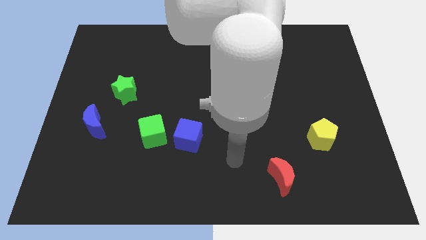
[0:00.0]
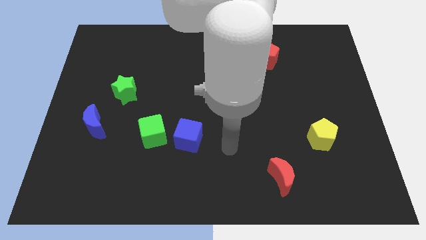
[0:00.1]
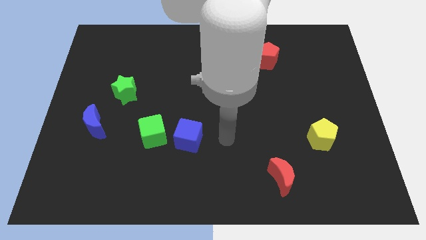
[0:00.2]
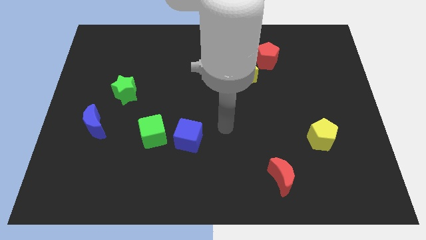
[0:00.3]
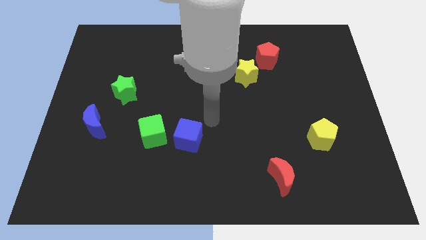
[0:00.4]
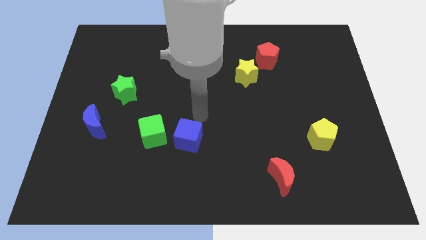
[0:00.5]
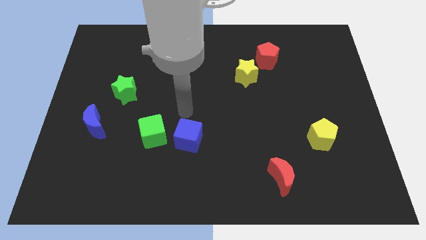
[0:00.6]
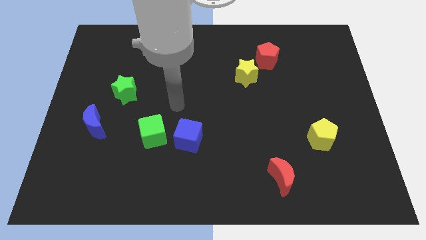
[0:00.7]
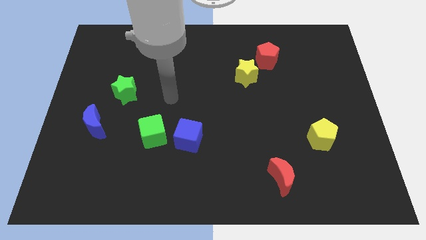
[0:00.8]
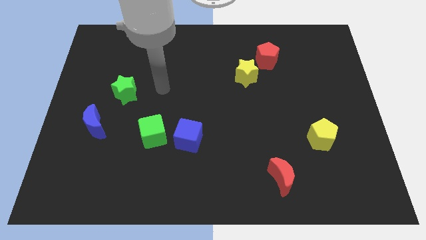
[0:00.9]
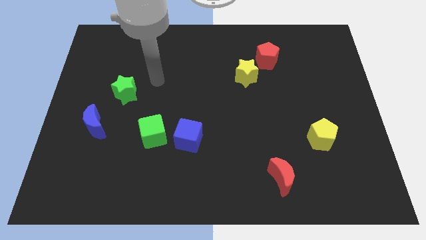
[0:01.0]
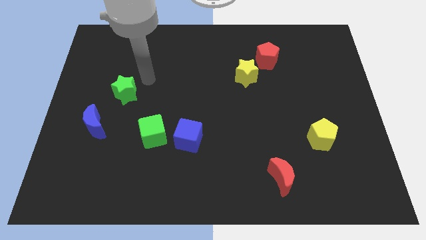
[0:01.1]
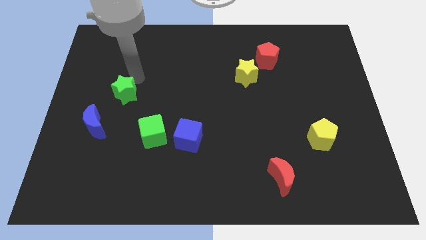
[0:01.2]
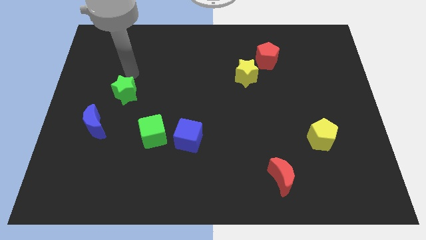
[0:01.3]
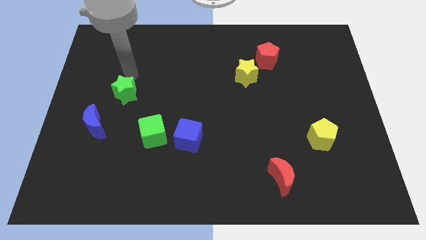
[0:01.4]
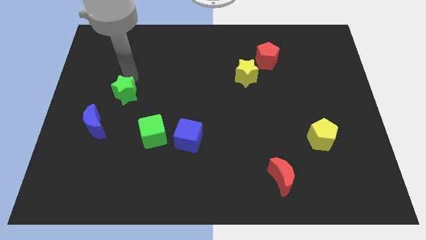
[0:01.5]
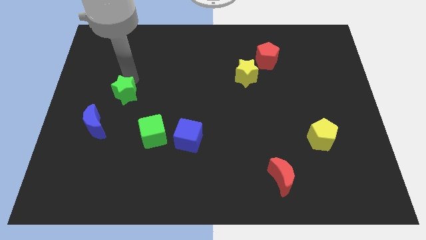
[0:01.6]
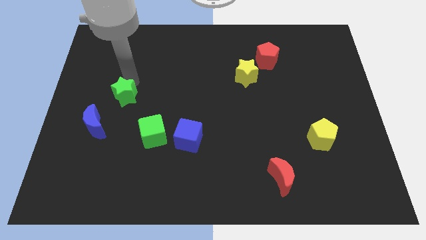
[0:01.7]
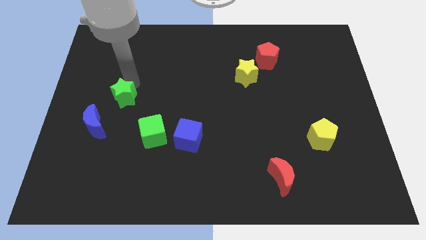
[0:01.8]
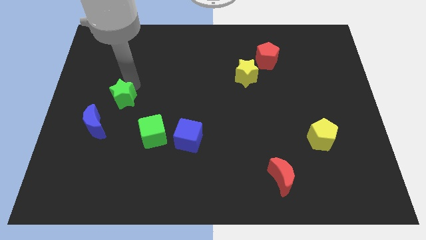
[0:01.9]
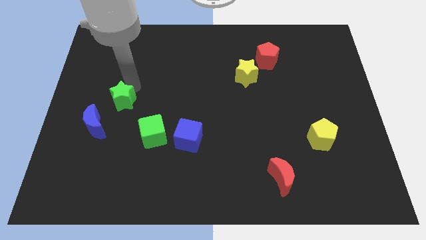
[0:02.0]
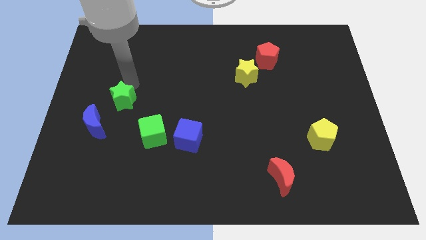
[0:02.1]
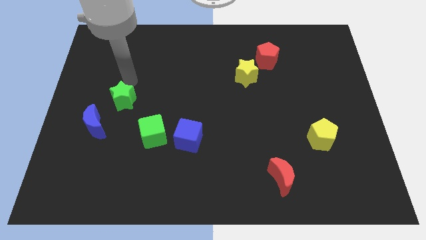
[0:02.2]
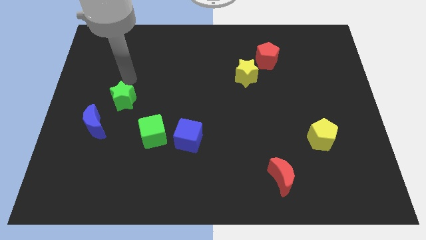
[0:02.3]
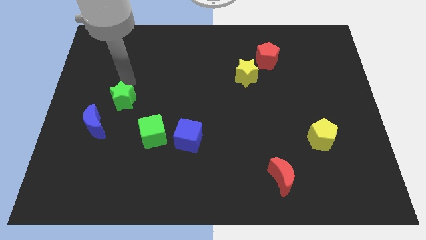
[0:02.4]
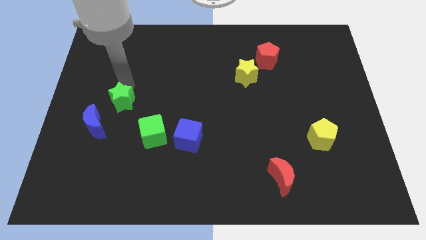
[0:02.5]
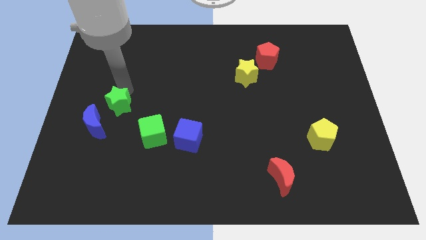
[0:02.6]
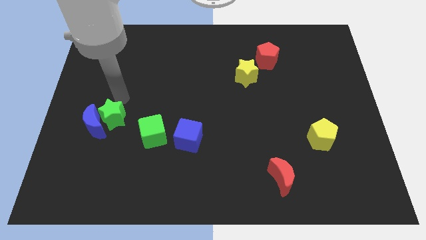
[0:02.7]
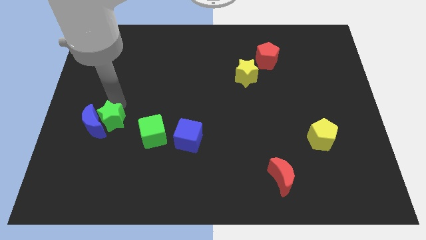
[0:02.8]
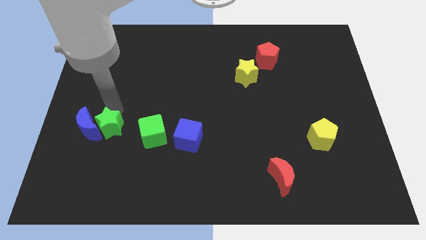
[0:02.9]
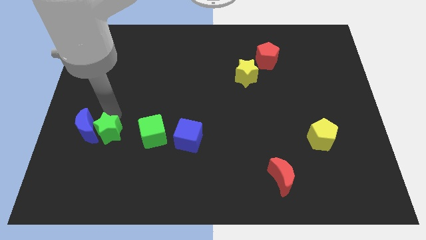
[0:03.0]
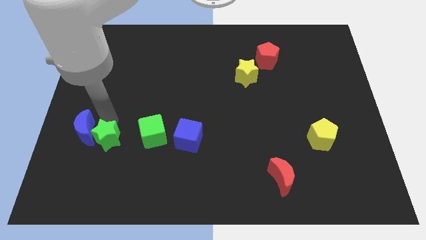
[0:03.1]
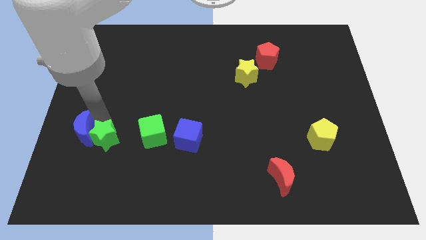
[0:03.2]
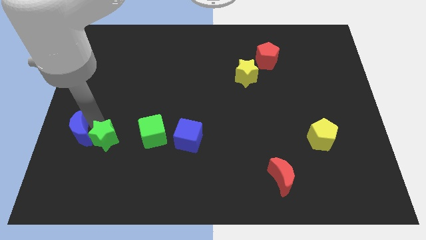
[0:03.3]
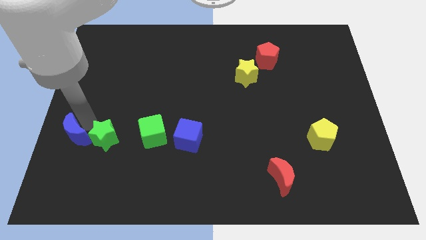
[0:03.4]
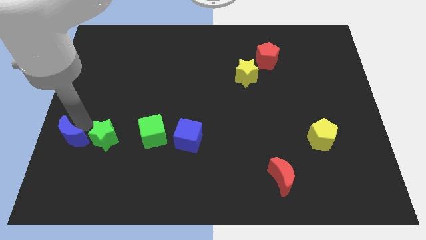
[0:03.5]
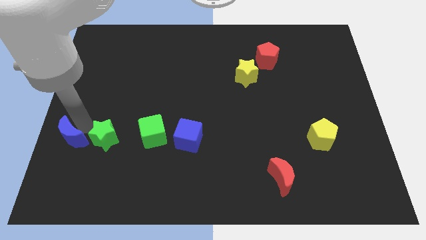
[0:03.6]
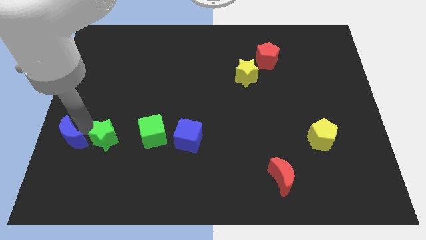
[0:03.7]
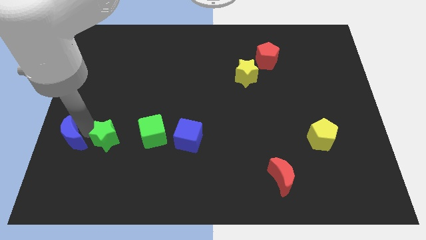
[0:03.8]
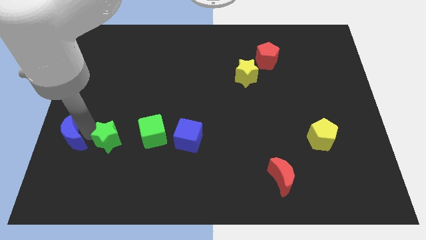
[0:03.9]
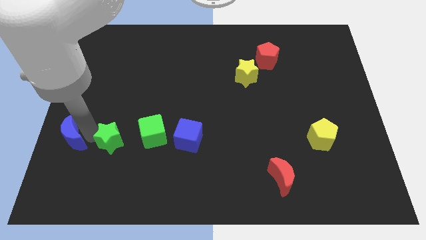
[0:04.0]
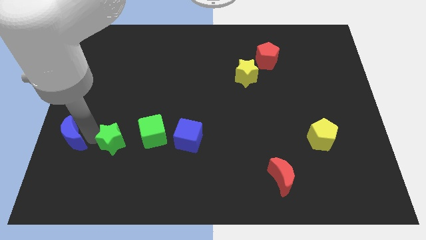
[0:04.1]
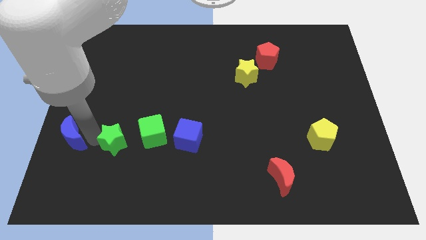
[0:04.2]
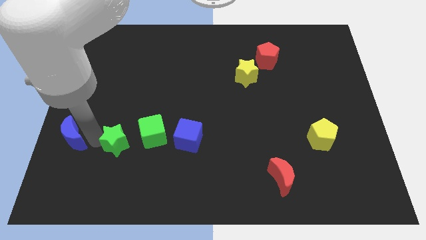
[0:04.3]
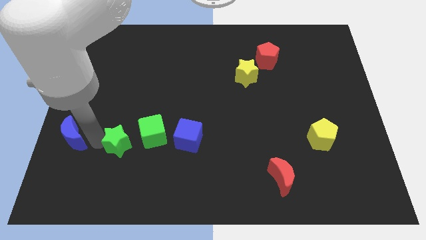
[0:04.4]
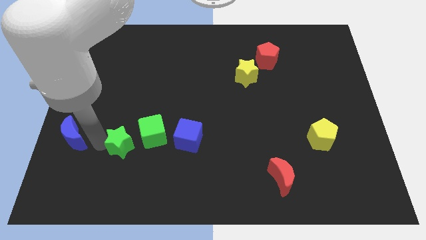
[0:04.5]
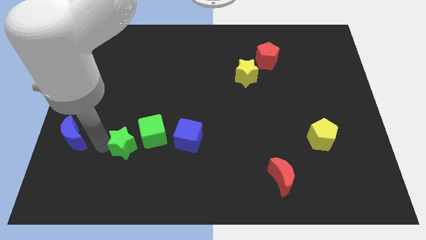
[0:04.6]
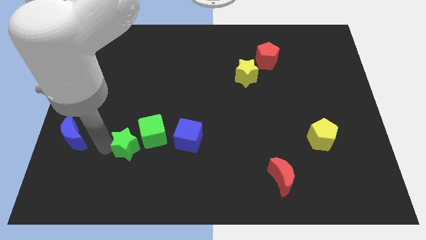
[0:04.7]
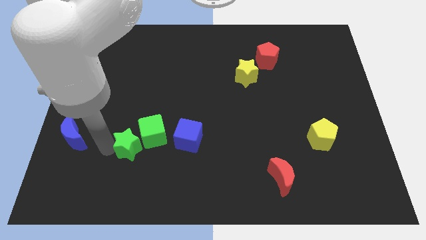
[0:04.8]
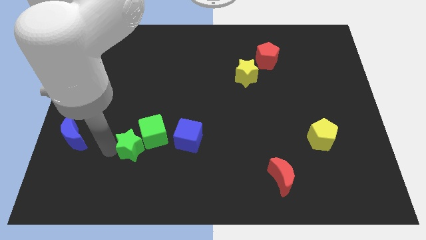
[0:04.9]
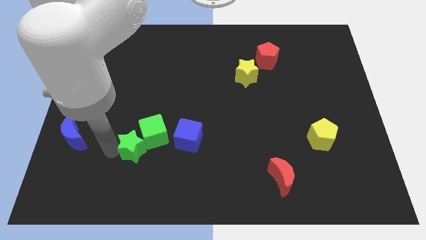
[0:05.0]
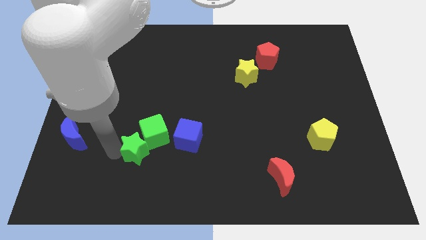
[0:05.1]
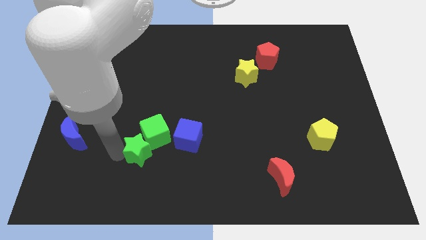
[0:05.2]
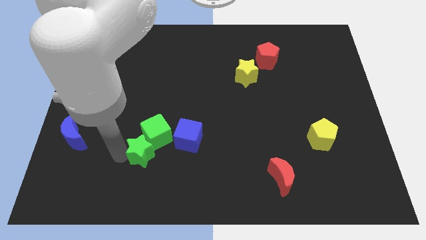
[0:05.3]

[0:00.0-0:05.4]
slide the green star diagonally down and to the left of the blue cube

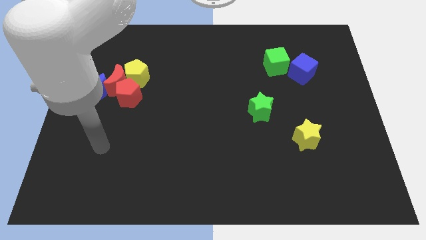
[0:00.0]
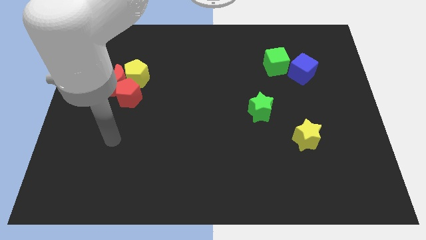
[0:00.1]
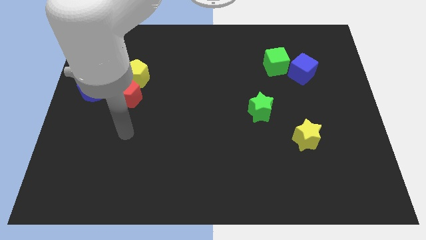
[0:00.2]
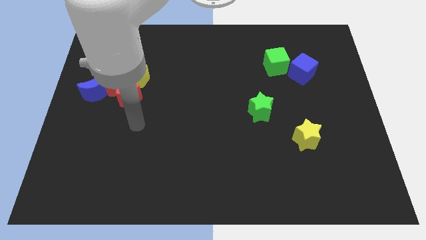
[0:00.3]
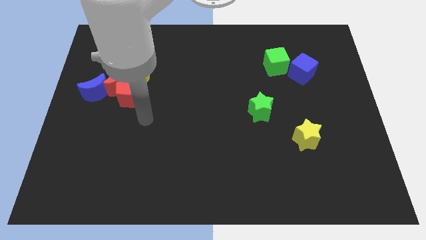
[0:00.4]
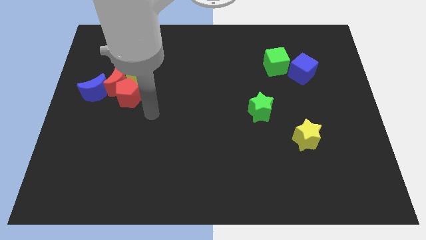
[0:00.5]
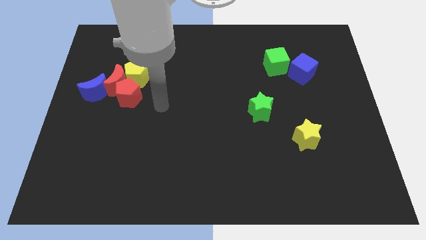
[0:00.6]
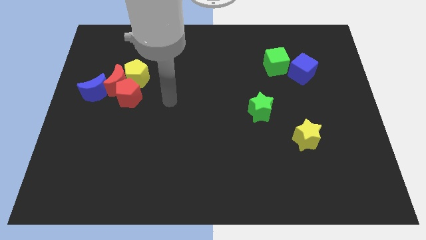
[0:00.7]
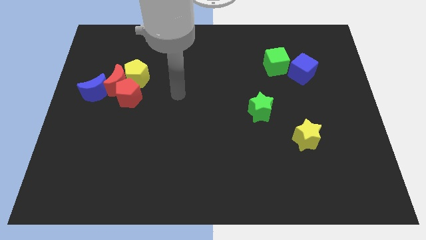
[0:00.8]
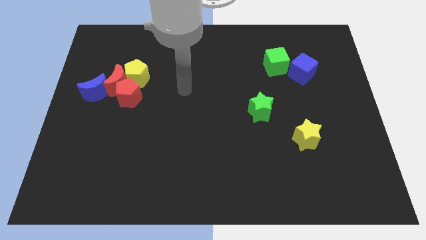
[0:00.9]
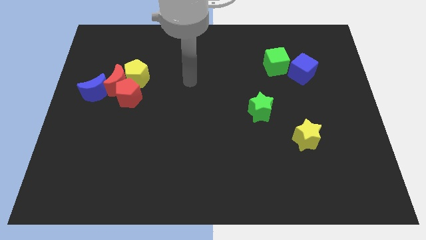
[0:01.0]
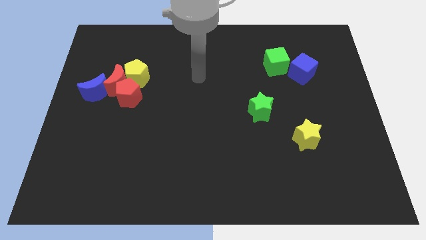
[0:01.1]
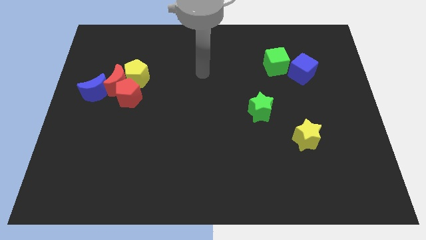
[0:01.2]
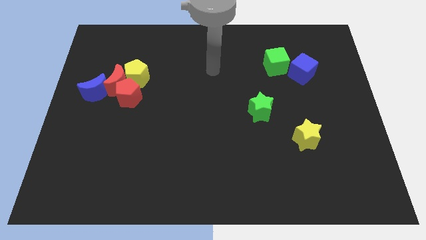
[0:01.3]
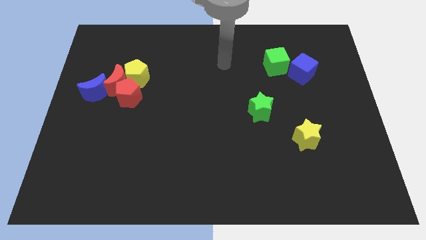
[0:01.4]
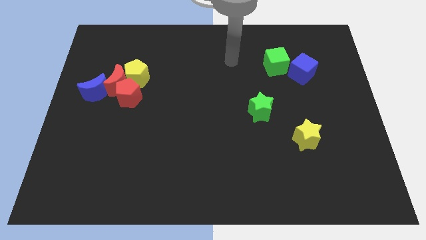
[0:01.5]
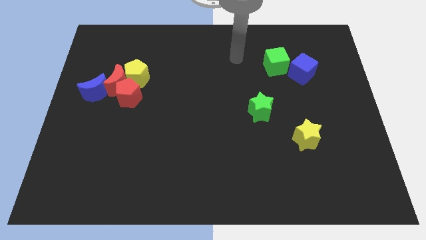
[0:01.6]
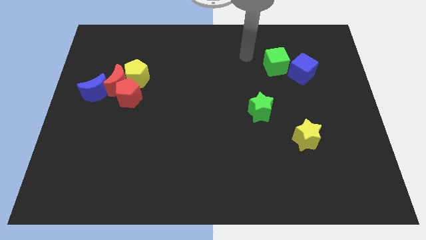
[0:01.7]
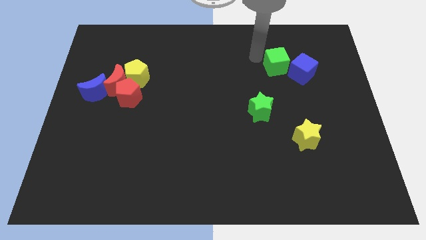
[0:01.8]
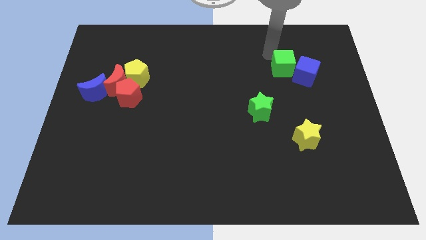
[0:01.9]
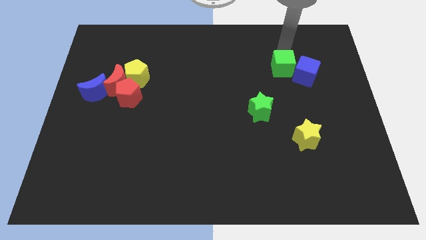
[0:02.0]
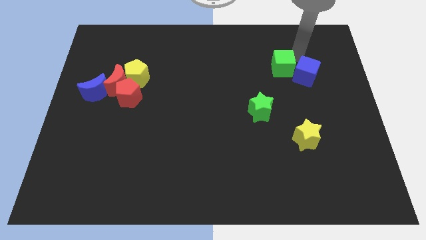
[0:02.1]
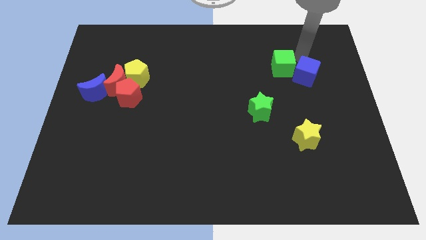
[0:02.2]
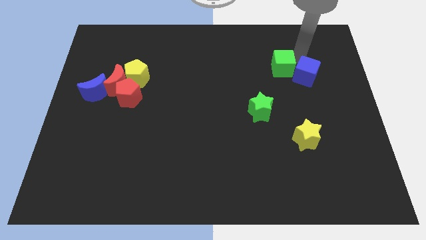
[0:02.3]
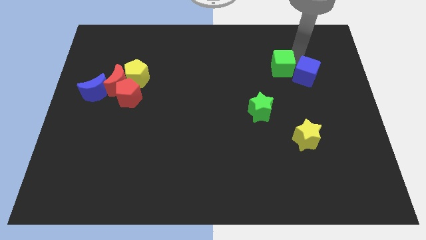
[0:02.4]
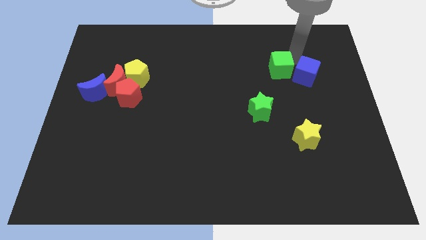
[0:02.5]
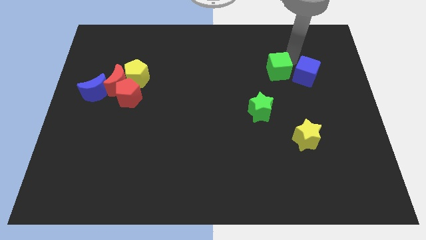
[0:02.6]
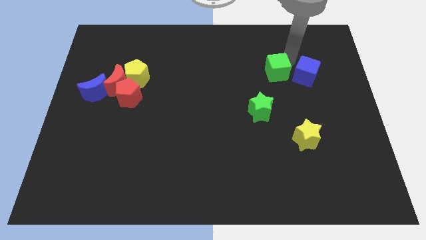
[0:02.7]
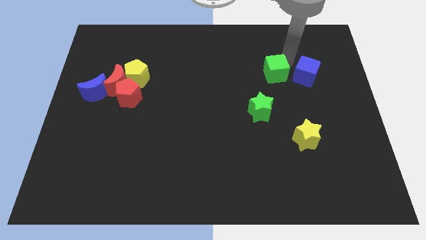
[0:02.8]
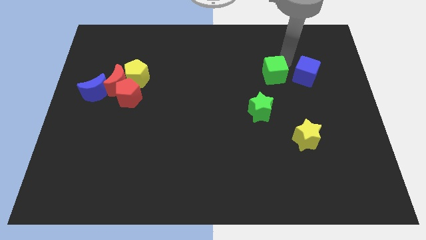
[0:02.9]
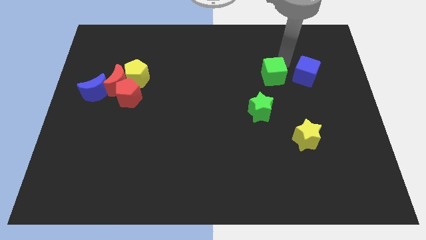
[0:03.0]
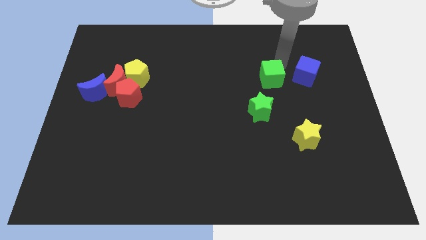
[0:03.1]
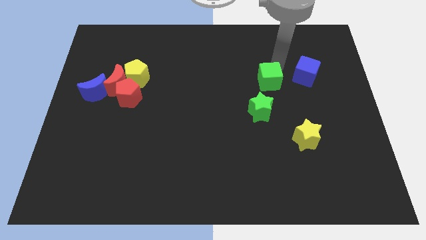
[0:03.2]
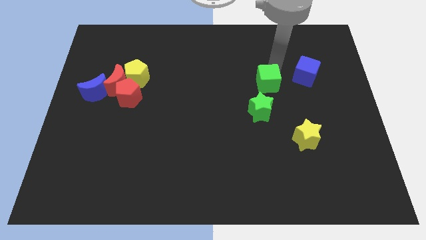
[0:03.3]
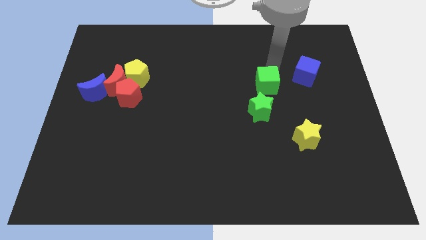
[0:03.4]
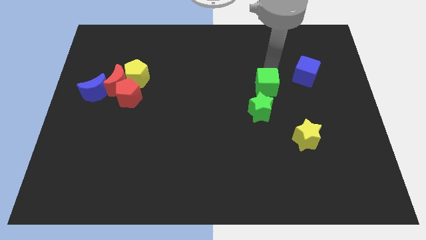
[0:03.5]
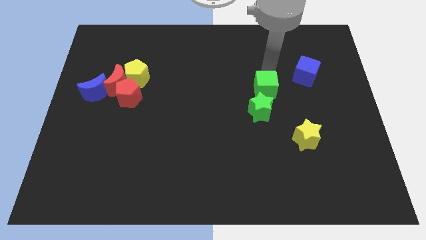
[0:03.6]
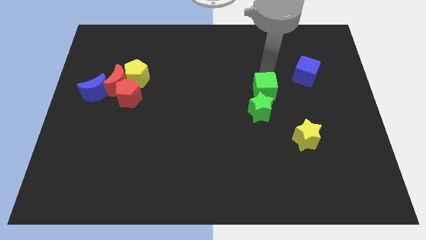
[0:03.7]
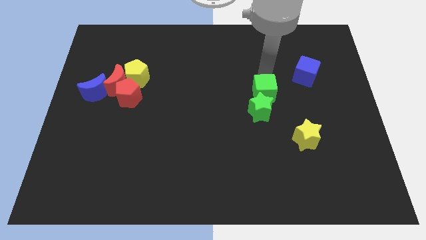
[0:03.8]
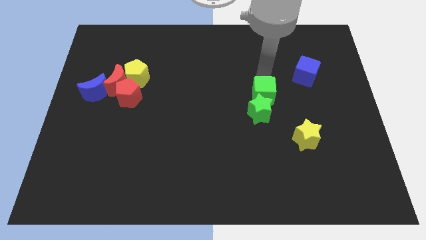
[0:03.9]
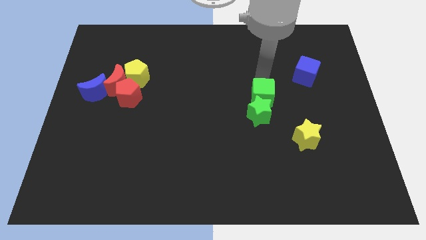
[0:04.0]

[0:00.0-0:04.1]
move the green cube to the top left side of the green star
